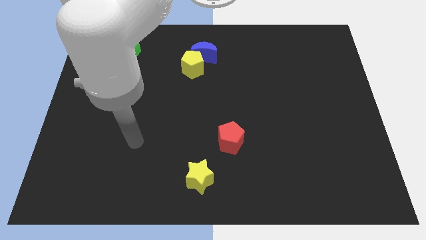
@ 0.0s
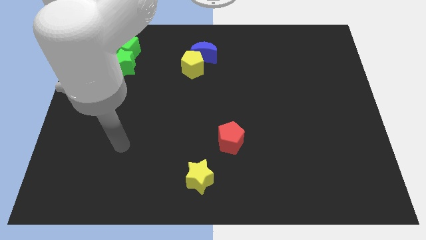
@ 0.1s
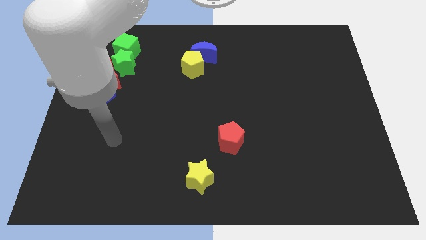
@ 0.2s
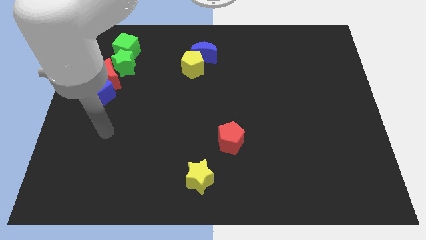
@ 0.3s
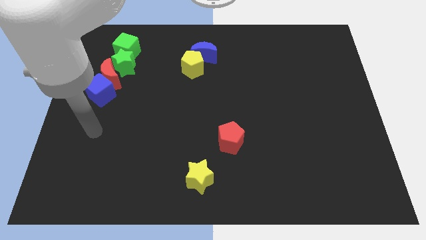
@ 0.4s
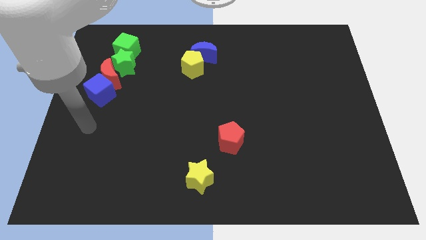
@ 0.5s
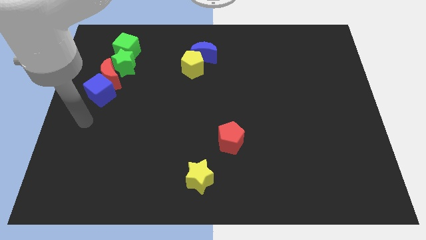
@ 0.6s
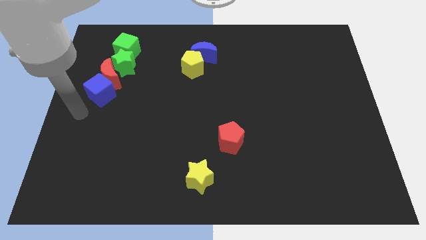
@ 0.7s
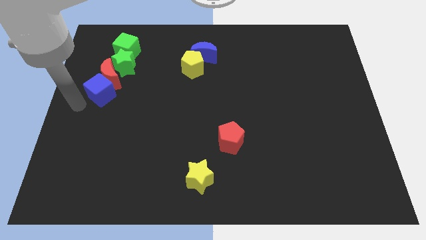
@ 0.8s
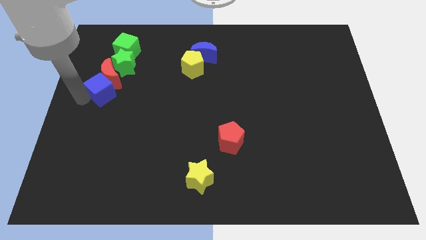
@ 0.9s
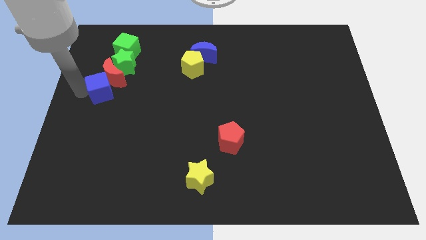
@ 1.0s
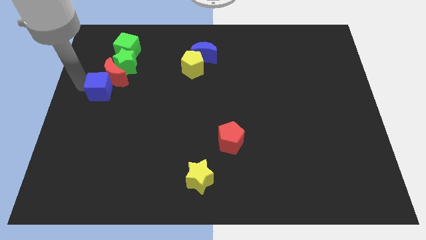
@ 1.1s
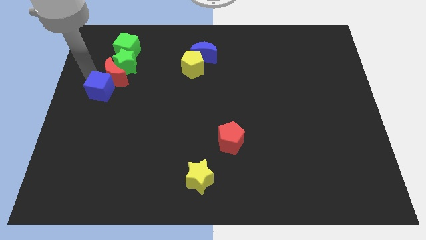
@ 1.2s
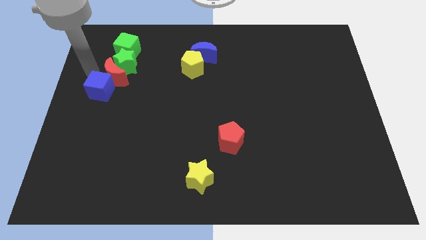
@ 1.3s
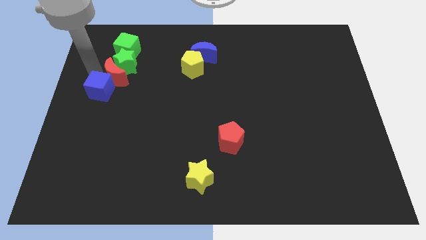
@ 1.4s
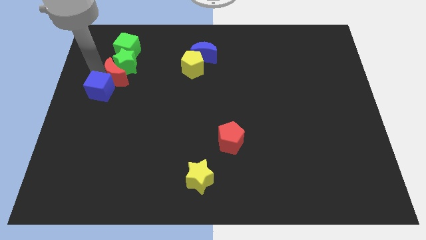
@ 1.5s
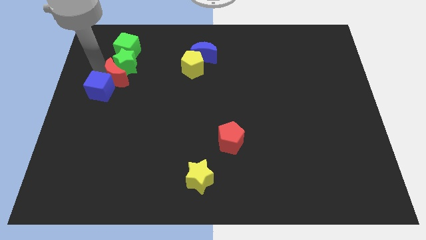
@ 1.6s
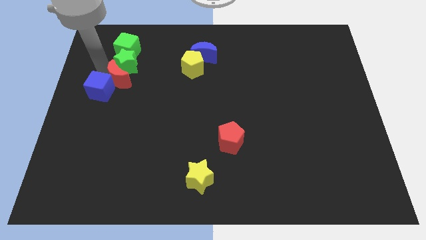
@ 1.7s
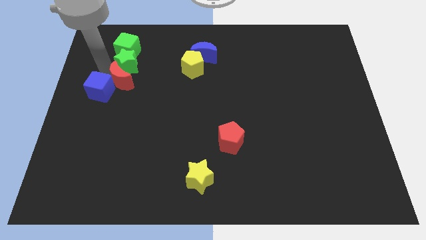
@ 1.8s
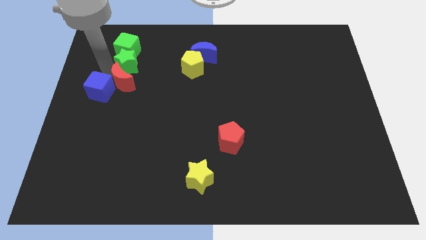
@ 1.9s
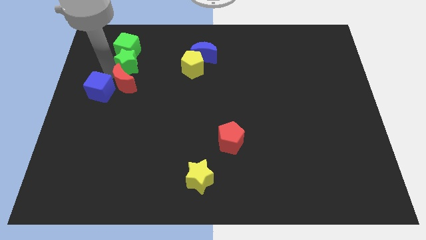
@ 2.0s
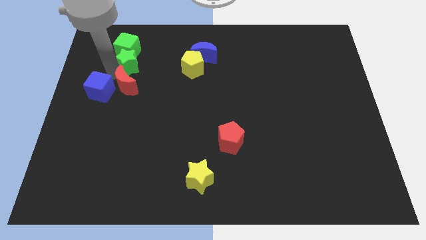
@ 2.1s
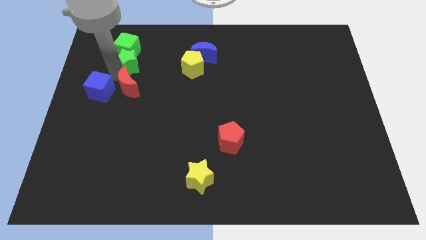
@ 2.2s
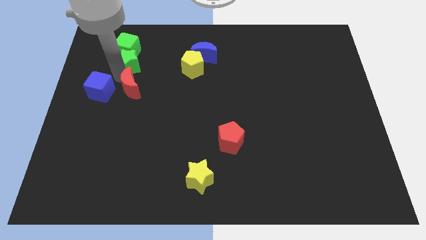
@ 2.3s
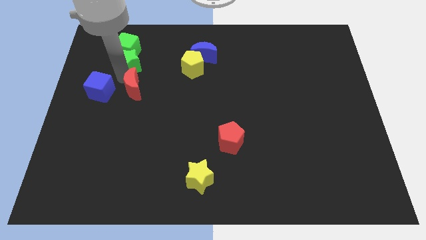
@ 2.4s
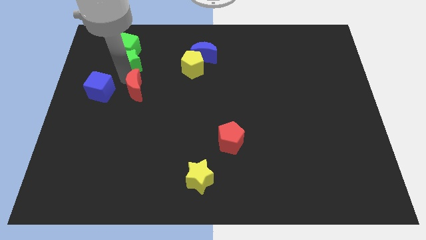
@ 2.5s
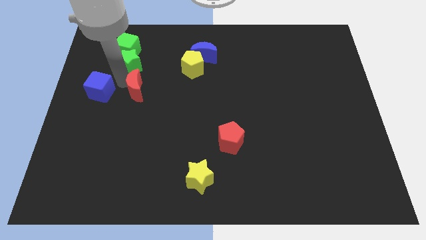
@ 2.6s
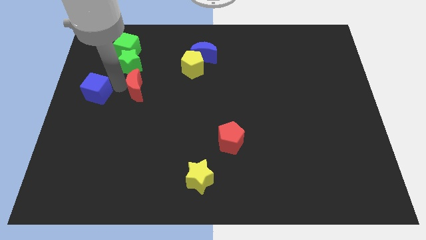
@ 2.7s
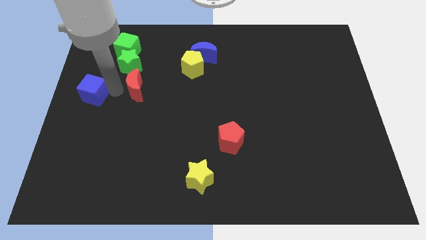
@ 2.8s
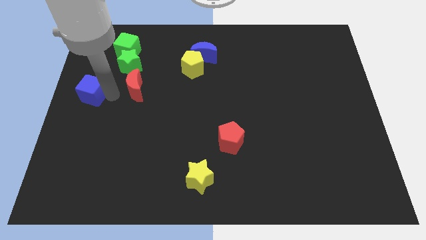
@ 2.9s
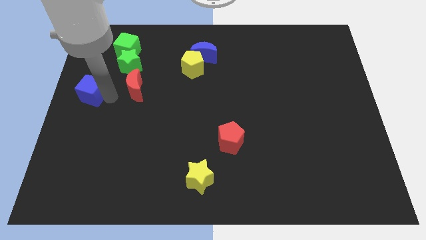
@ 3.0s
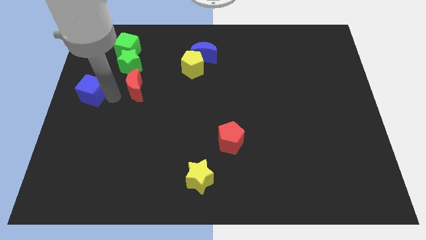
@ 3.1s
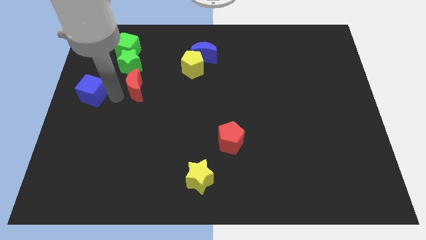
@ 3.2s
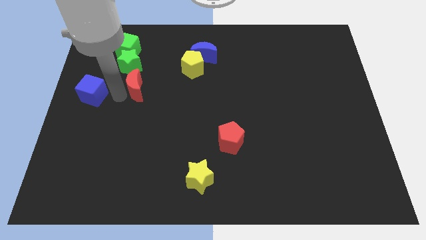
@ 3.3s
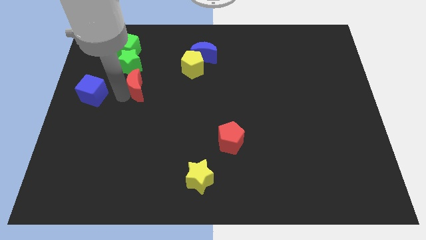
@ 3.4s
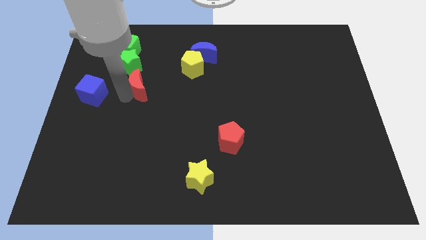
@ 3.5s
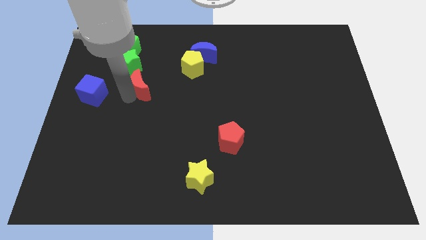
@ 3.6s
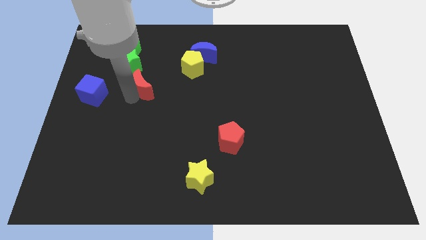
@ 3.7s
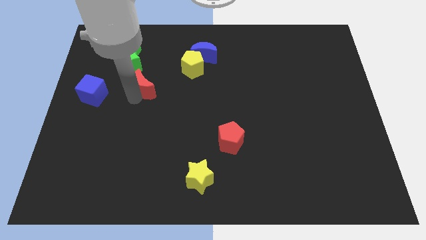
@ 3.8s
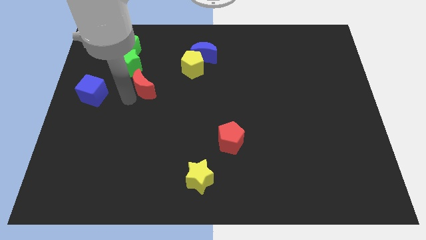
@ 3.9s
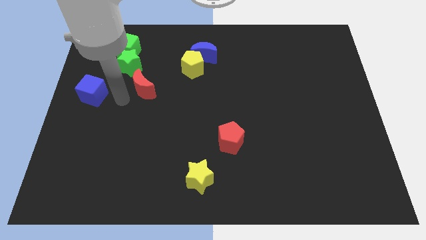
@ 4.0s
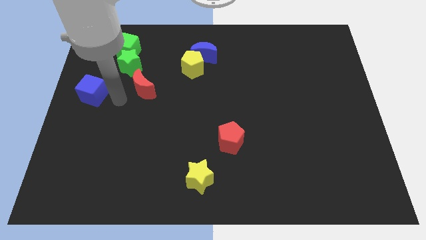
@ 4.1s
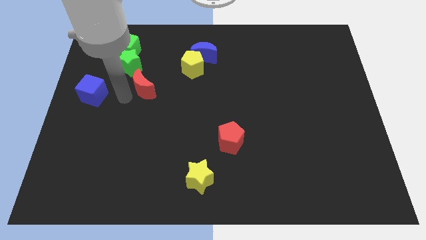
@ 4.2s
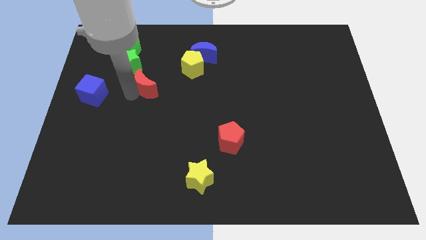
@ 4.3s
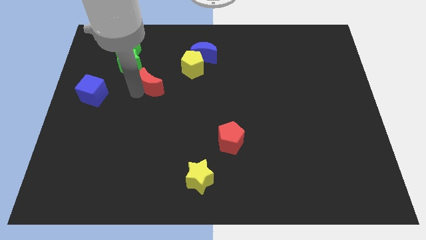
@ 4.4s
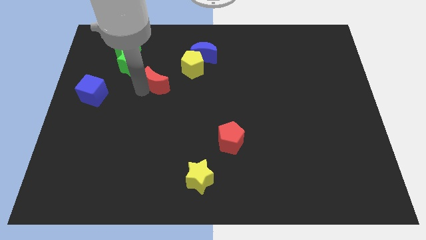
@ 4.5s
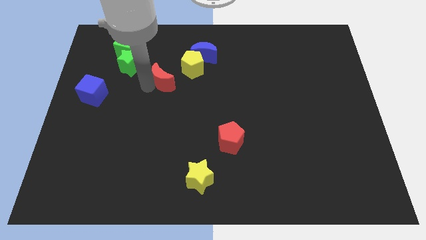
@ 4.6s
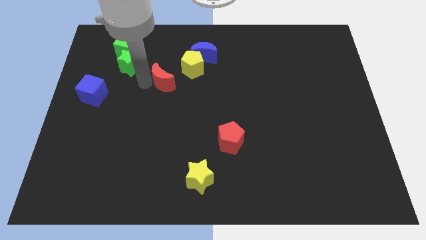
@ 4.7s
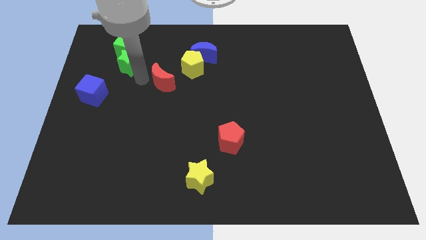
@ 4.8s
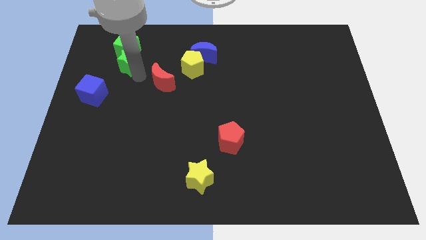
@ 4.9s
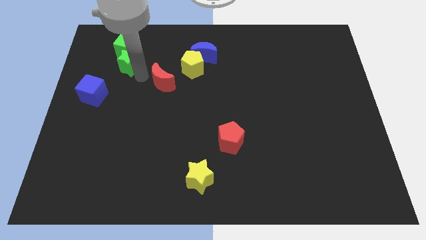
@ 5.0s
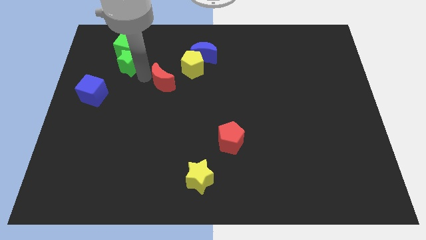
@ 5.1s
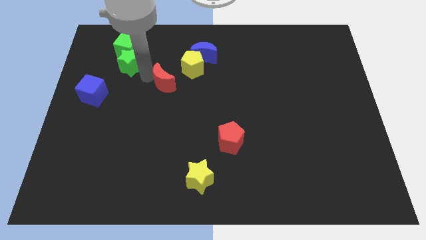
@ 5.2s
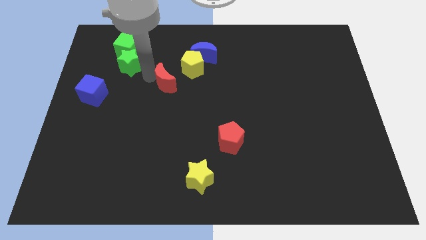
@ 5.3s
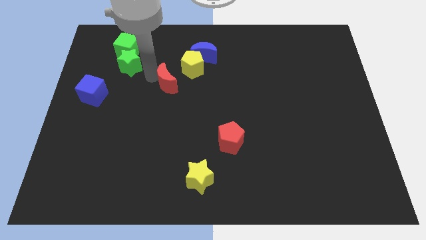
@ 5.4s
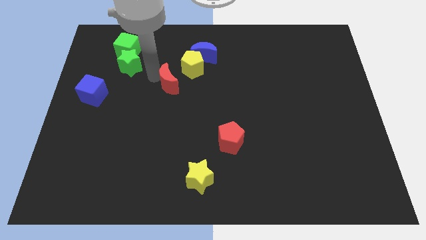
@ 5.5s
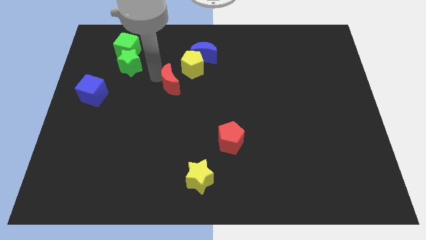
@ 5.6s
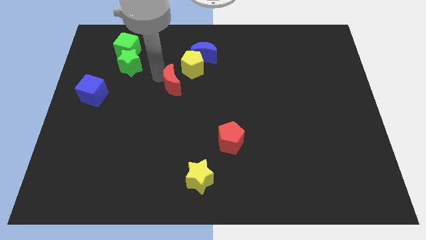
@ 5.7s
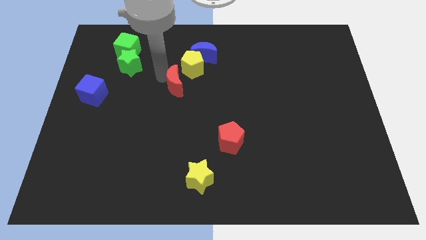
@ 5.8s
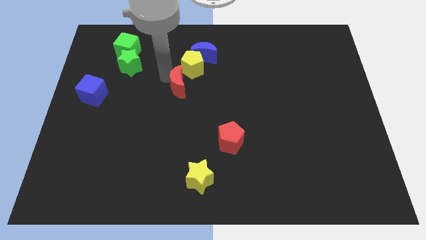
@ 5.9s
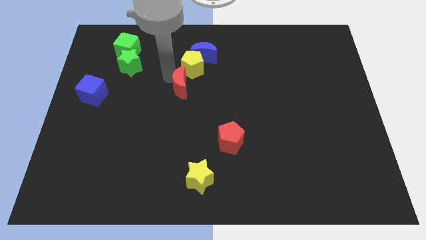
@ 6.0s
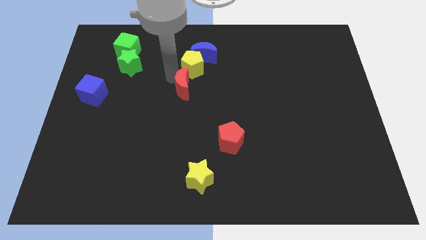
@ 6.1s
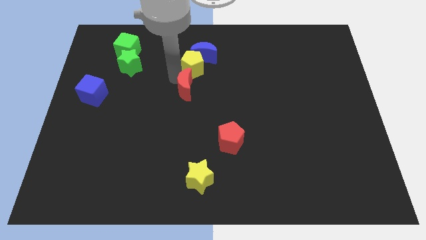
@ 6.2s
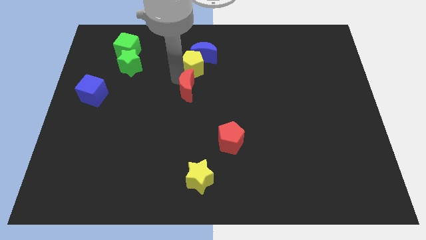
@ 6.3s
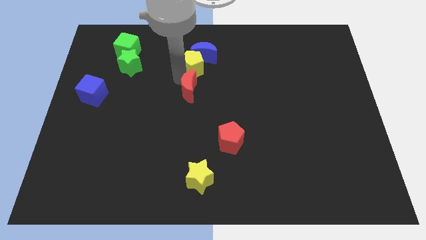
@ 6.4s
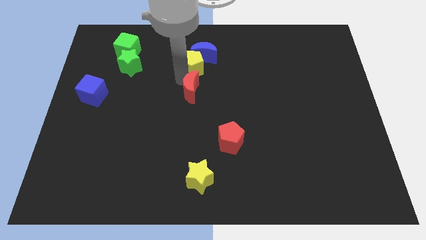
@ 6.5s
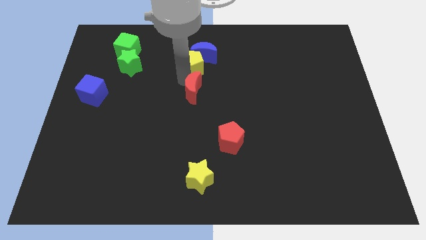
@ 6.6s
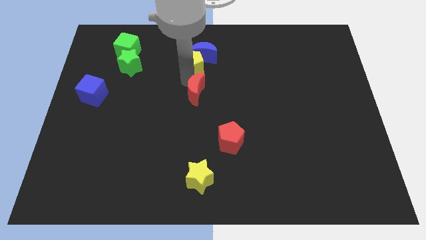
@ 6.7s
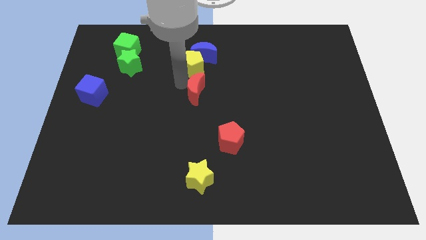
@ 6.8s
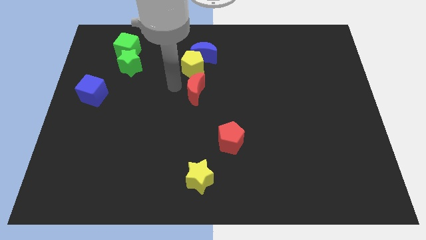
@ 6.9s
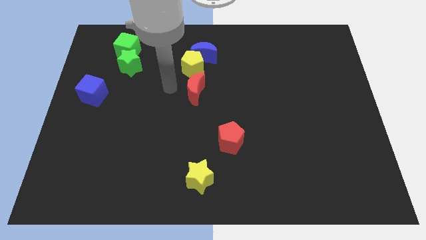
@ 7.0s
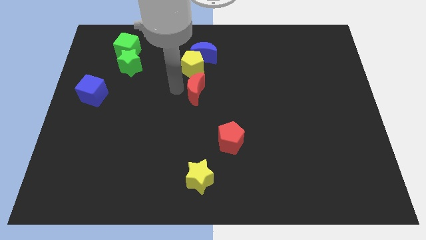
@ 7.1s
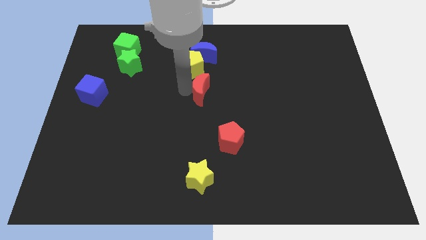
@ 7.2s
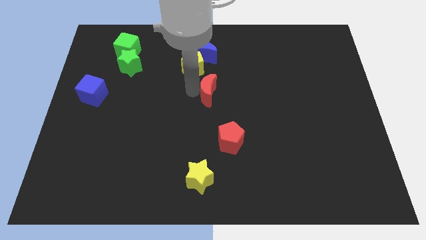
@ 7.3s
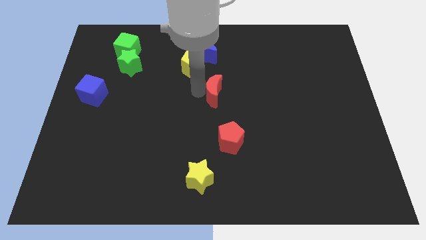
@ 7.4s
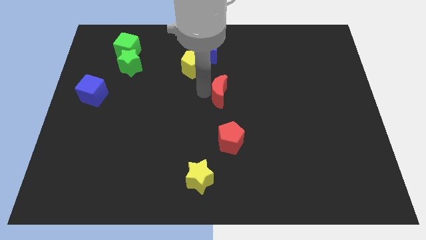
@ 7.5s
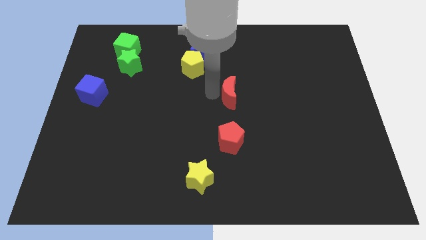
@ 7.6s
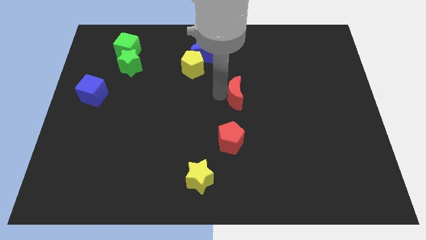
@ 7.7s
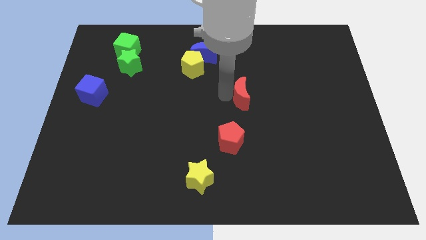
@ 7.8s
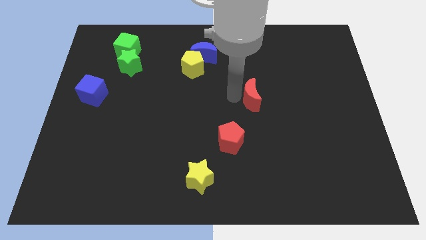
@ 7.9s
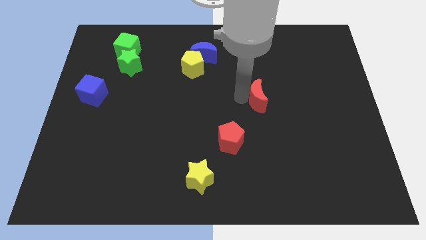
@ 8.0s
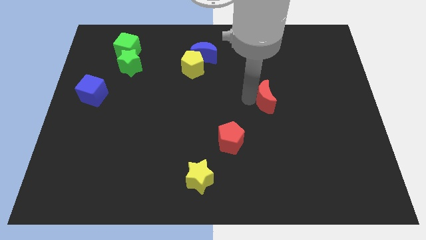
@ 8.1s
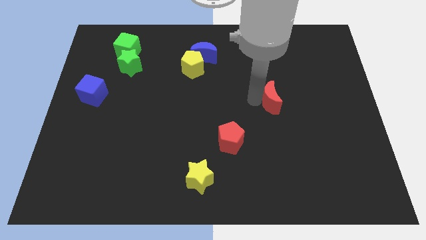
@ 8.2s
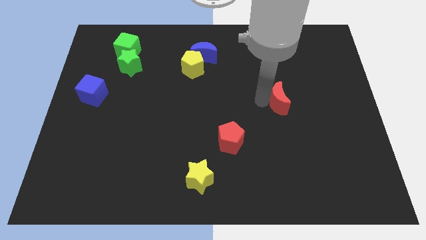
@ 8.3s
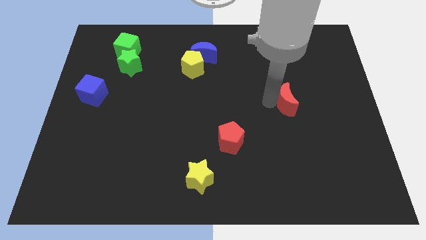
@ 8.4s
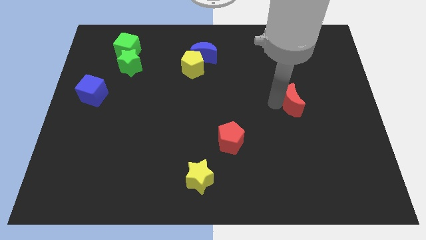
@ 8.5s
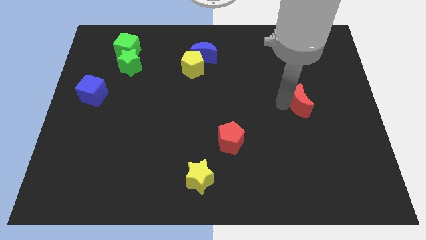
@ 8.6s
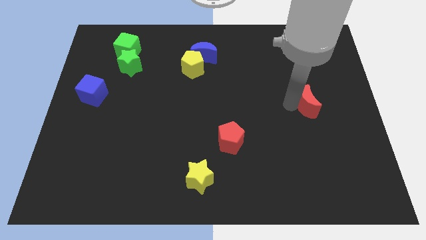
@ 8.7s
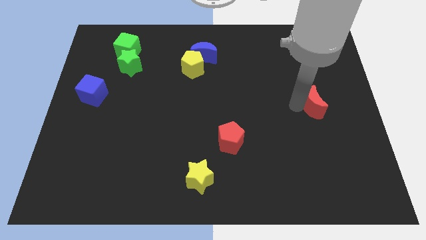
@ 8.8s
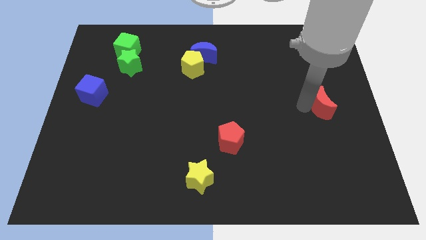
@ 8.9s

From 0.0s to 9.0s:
put the red moon to the right side of the board
